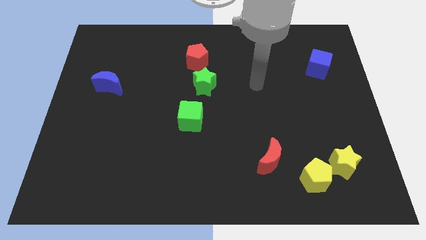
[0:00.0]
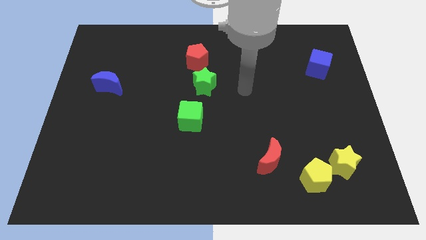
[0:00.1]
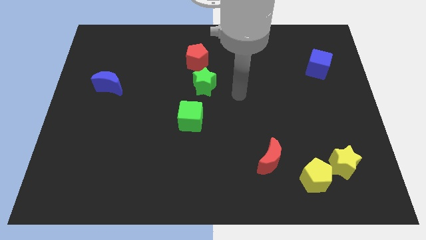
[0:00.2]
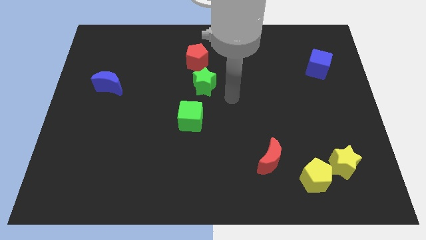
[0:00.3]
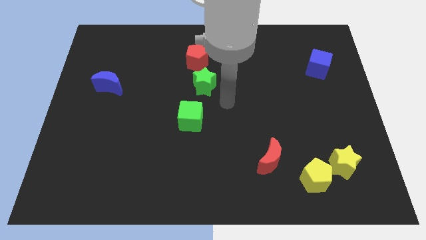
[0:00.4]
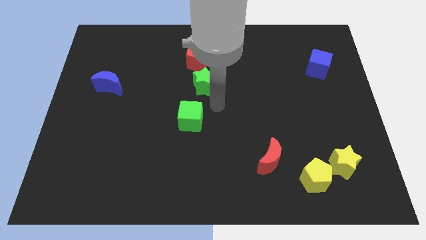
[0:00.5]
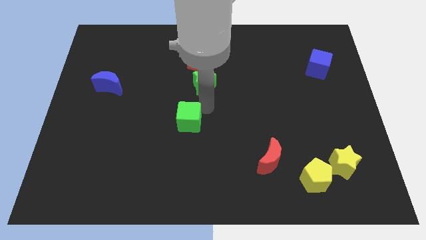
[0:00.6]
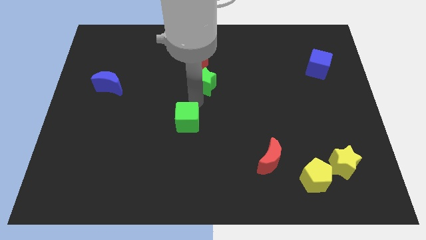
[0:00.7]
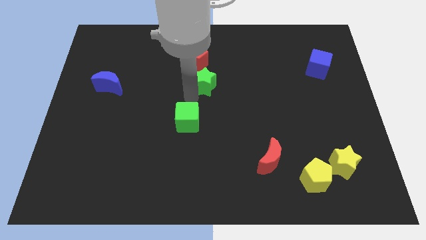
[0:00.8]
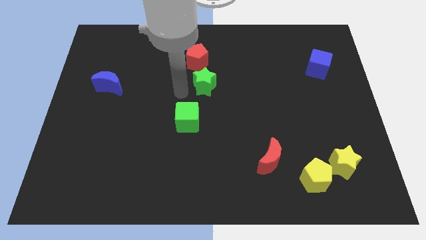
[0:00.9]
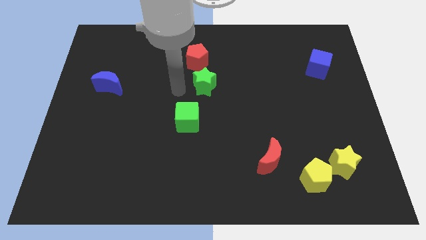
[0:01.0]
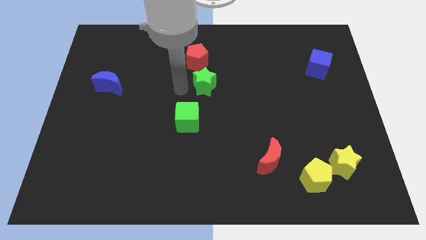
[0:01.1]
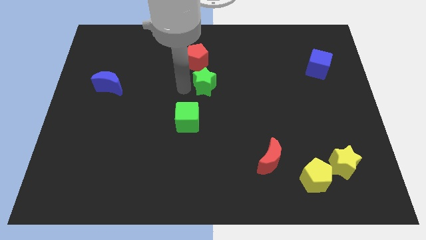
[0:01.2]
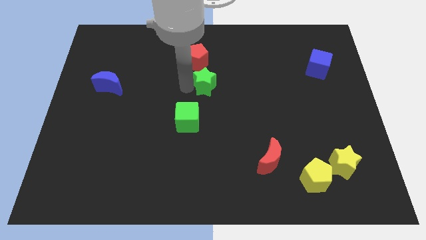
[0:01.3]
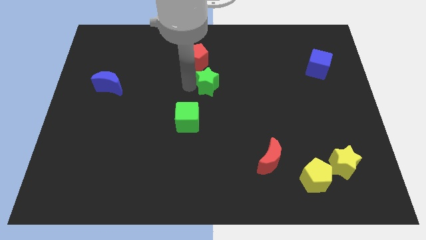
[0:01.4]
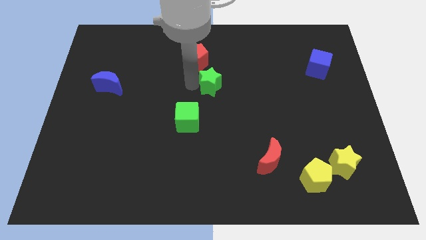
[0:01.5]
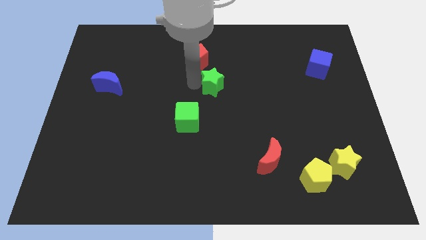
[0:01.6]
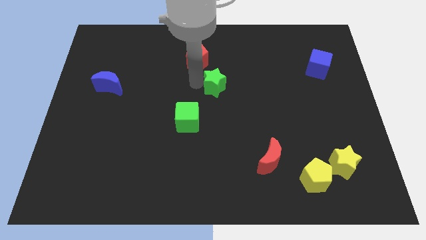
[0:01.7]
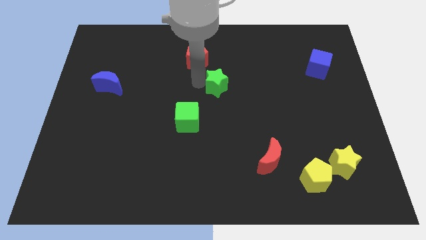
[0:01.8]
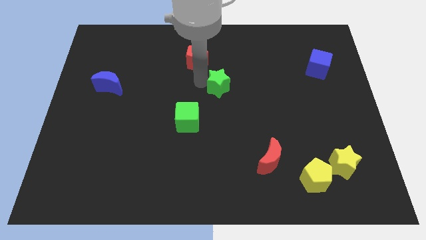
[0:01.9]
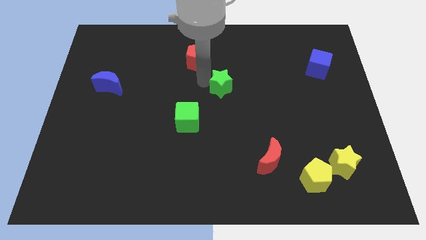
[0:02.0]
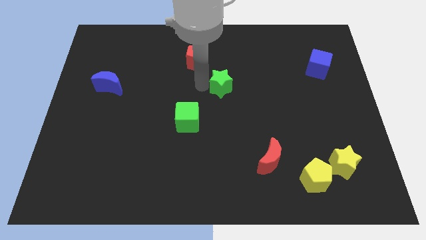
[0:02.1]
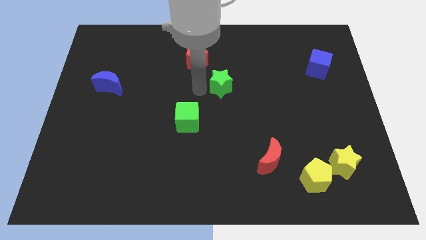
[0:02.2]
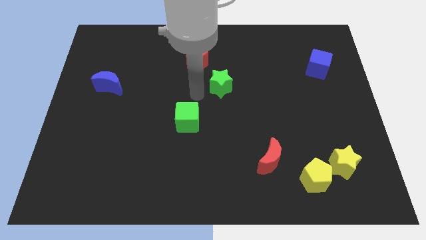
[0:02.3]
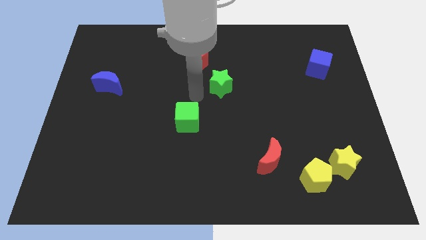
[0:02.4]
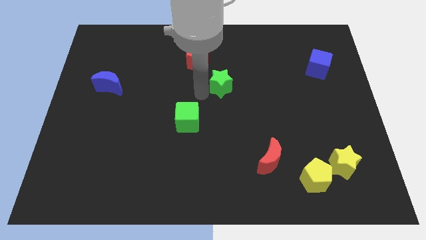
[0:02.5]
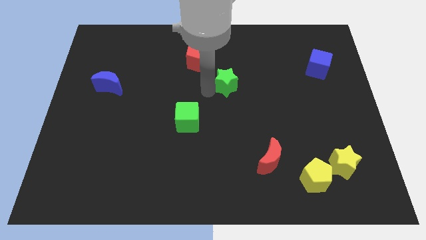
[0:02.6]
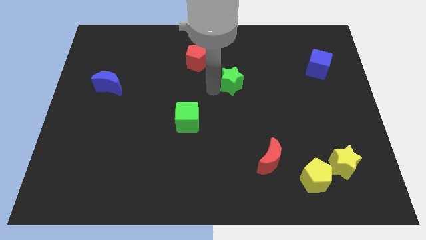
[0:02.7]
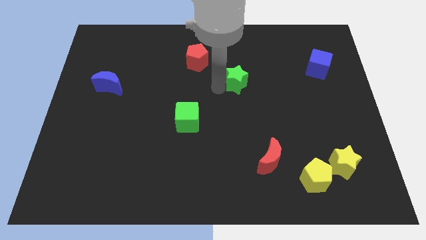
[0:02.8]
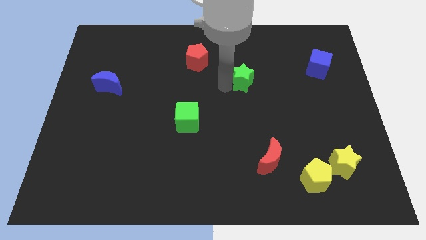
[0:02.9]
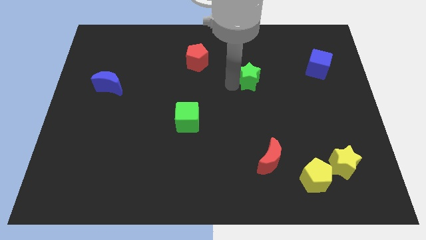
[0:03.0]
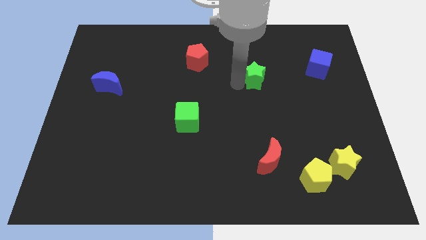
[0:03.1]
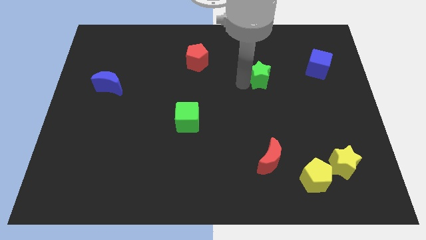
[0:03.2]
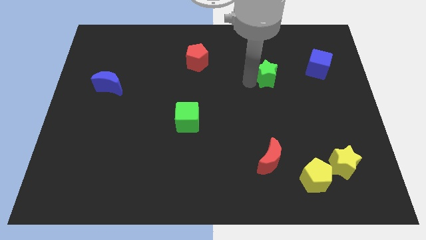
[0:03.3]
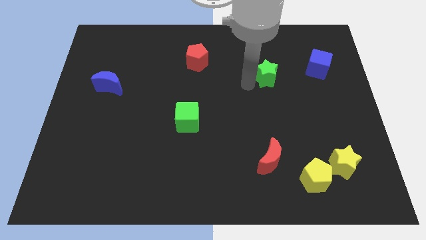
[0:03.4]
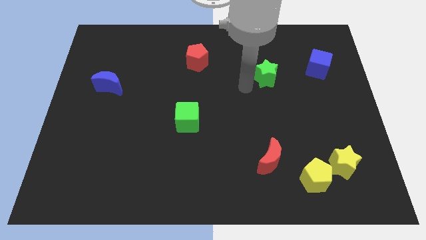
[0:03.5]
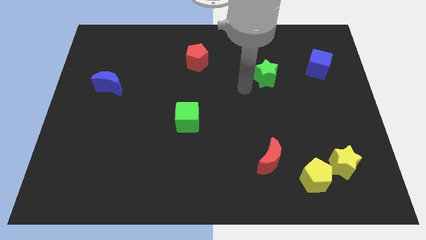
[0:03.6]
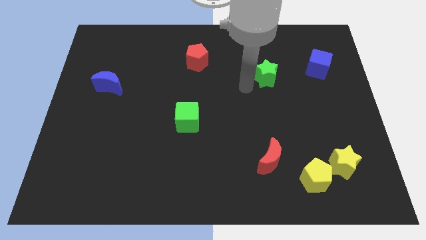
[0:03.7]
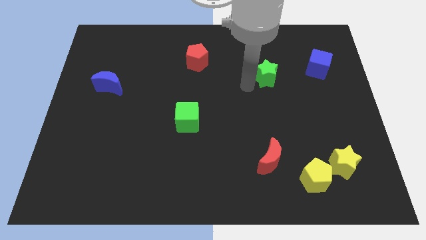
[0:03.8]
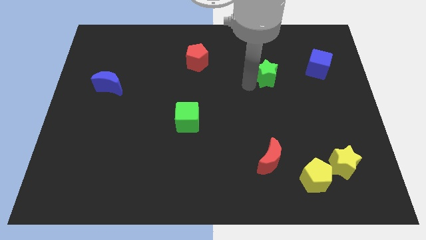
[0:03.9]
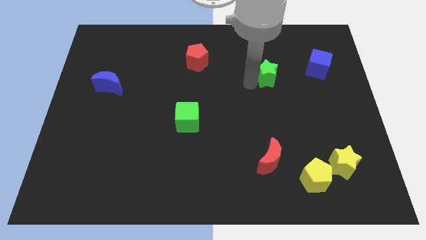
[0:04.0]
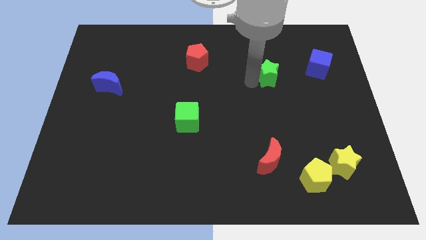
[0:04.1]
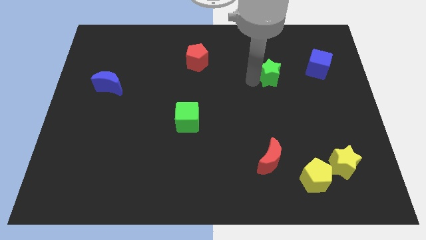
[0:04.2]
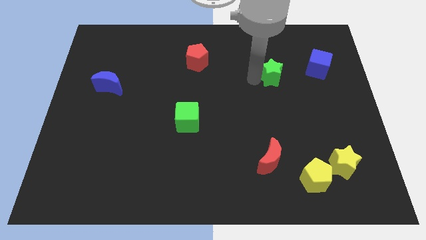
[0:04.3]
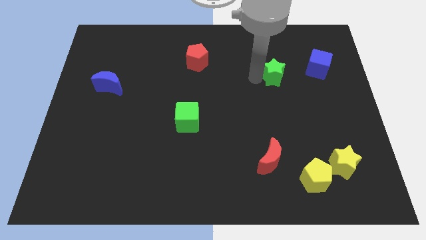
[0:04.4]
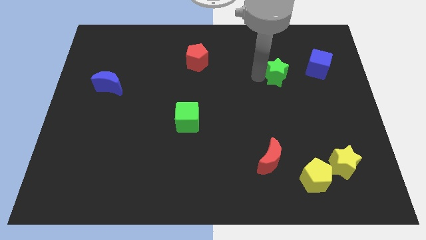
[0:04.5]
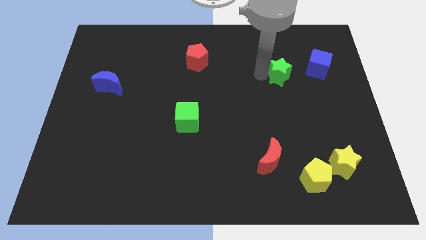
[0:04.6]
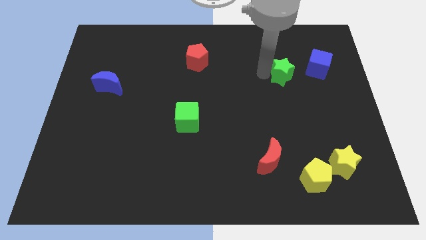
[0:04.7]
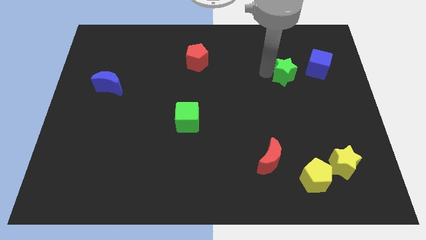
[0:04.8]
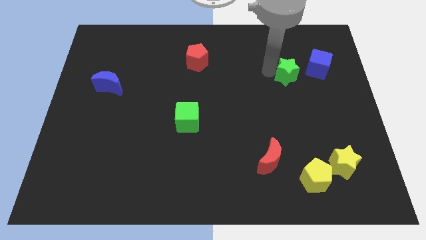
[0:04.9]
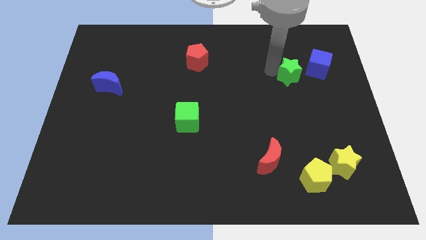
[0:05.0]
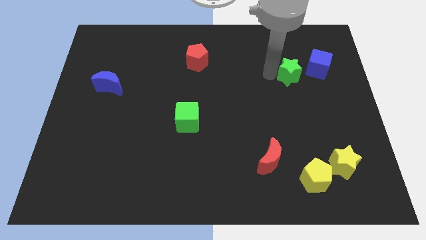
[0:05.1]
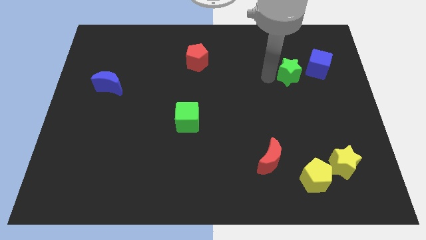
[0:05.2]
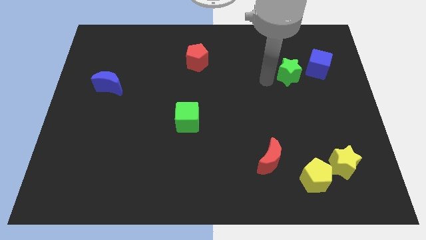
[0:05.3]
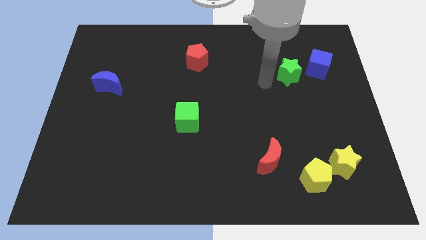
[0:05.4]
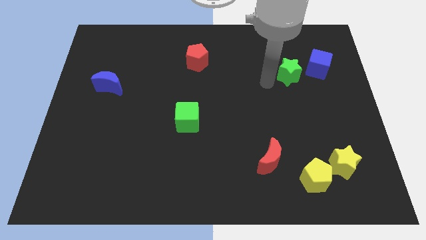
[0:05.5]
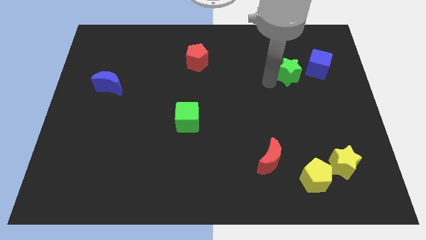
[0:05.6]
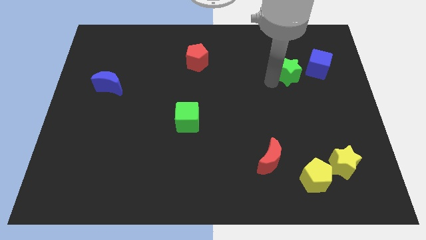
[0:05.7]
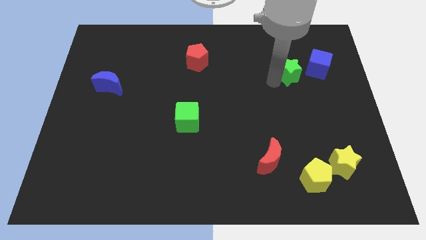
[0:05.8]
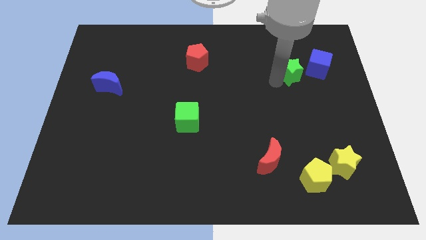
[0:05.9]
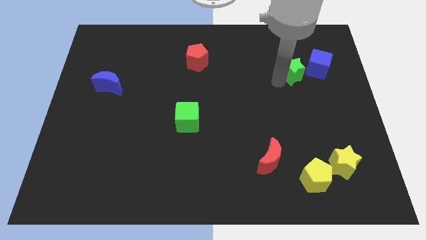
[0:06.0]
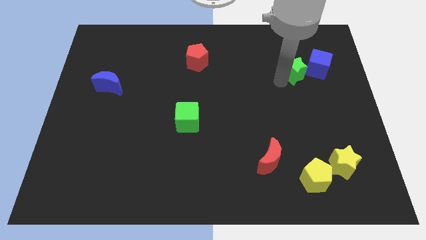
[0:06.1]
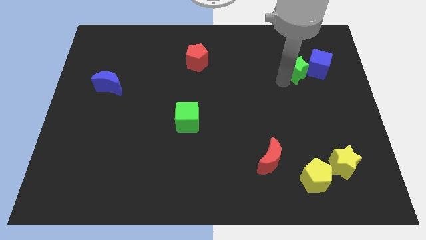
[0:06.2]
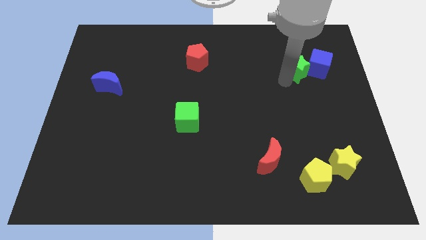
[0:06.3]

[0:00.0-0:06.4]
push the green star close to the blue cube
